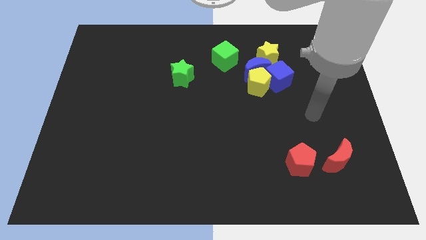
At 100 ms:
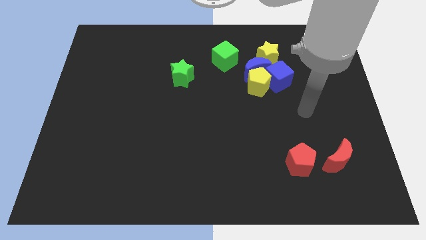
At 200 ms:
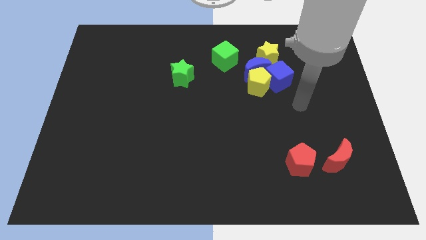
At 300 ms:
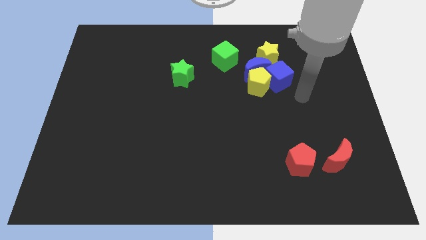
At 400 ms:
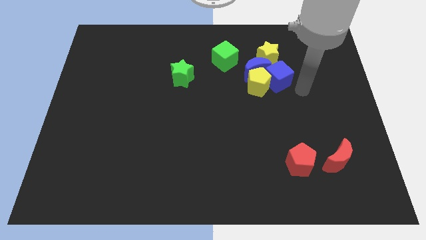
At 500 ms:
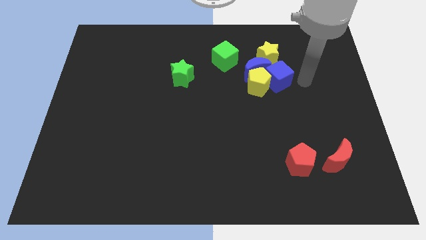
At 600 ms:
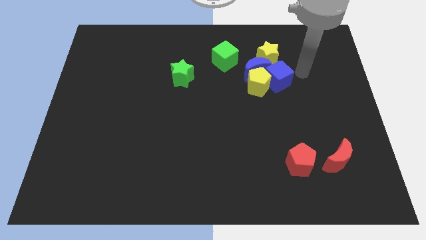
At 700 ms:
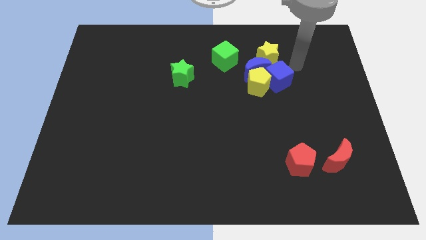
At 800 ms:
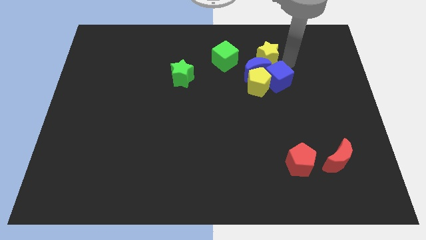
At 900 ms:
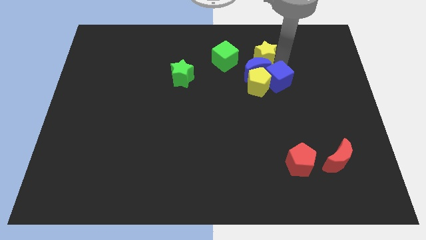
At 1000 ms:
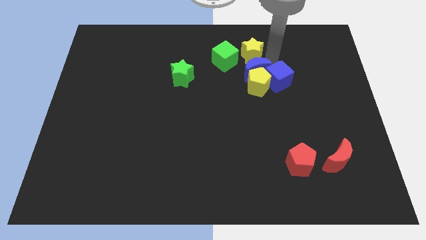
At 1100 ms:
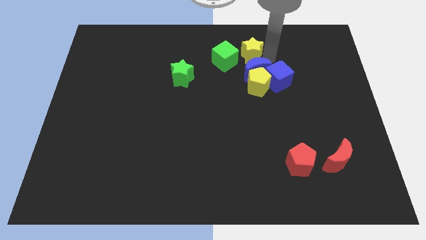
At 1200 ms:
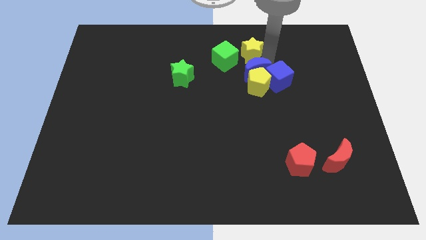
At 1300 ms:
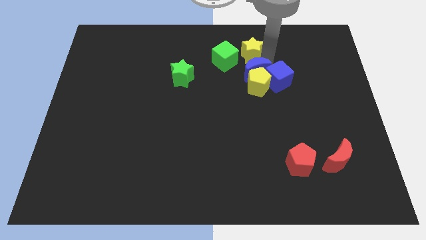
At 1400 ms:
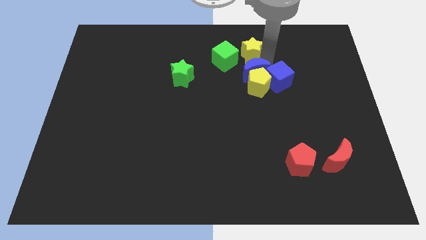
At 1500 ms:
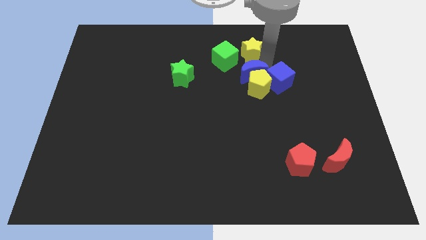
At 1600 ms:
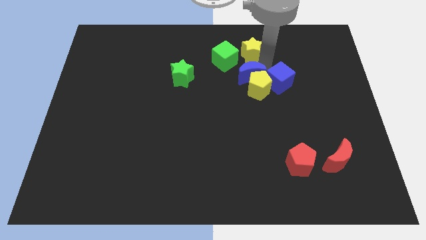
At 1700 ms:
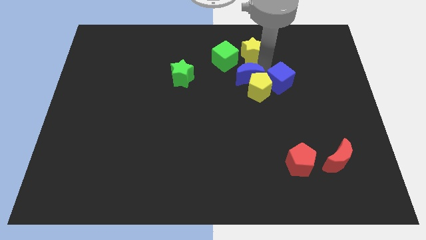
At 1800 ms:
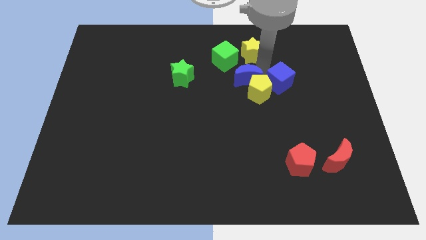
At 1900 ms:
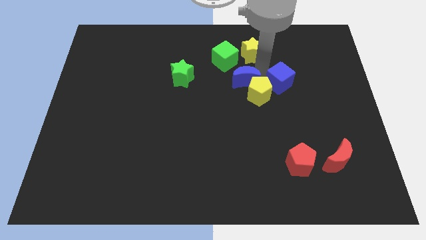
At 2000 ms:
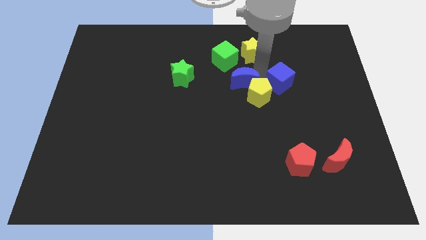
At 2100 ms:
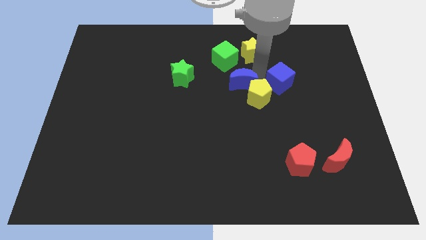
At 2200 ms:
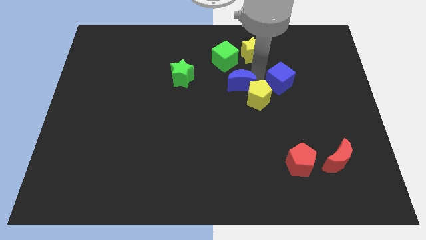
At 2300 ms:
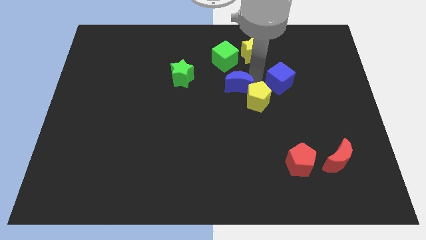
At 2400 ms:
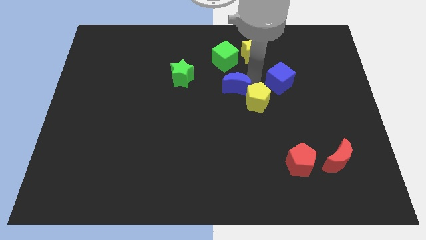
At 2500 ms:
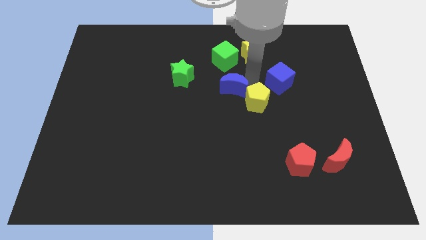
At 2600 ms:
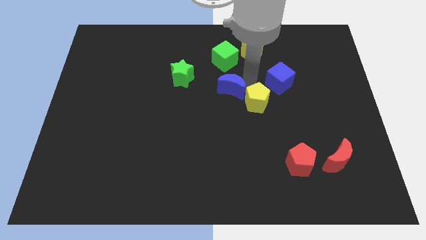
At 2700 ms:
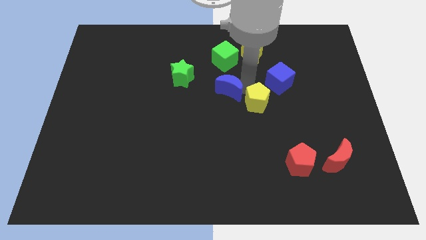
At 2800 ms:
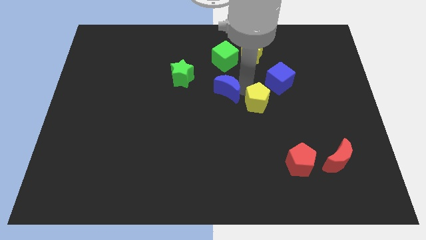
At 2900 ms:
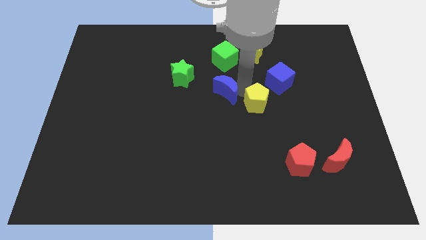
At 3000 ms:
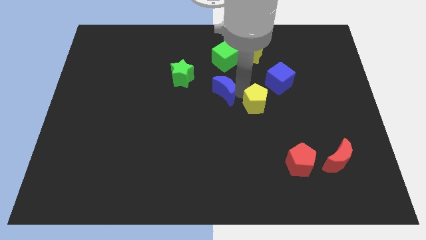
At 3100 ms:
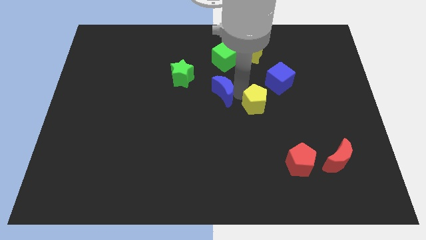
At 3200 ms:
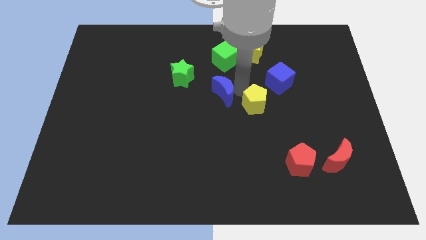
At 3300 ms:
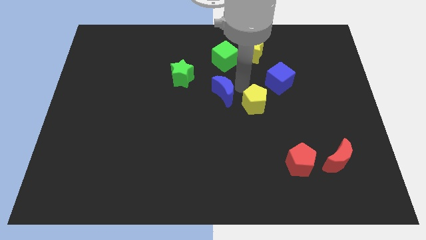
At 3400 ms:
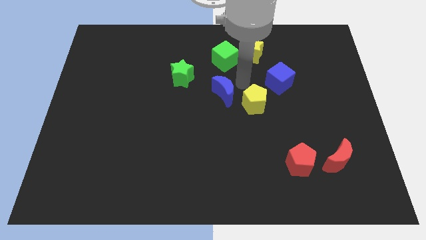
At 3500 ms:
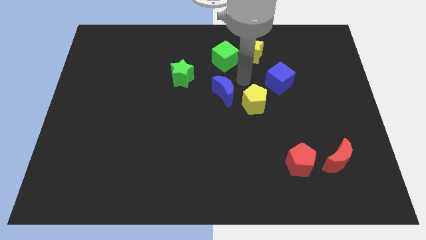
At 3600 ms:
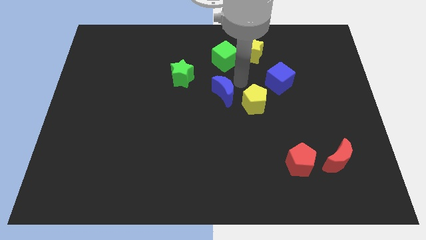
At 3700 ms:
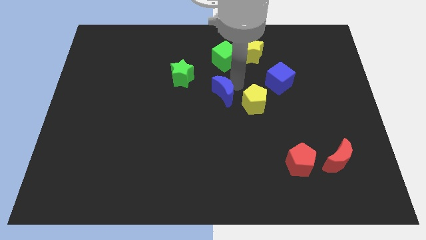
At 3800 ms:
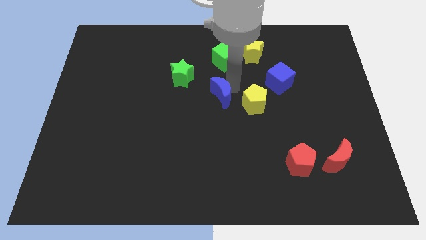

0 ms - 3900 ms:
pull the blue moon apart from the clump

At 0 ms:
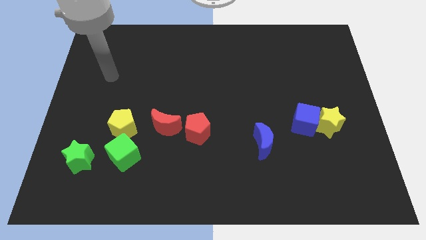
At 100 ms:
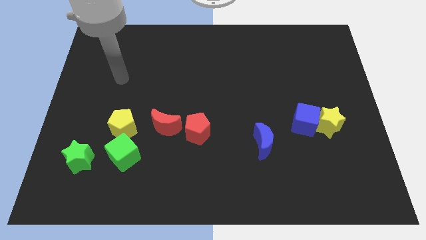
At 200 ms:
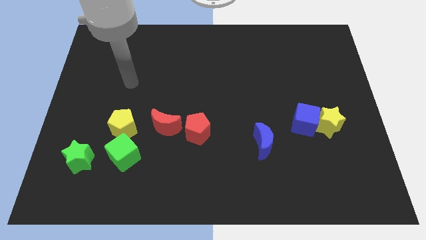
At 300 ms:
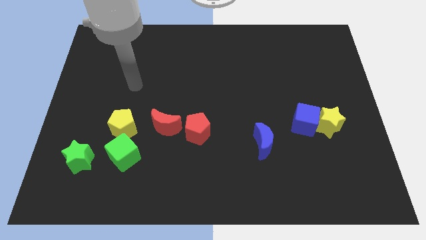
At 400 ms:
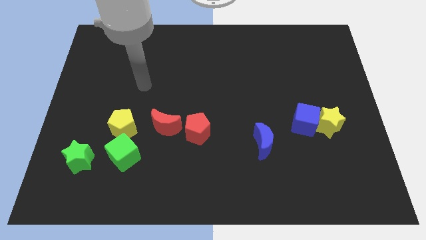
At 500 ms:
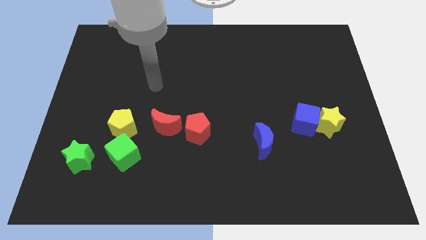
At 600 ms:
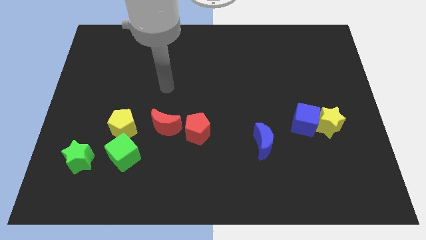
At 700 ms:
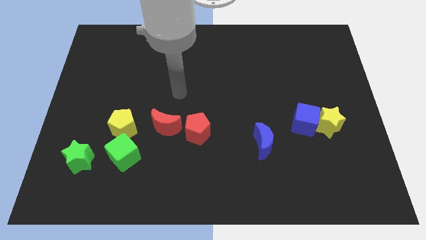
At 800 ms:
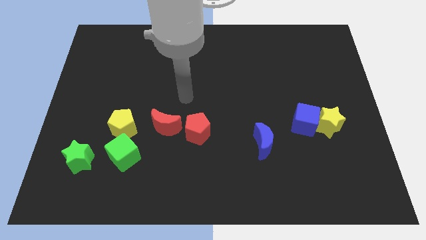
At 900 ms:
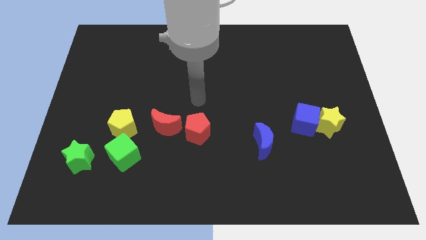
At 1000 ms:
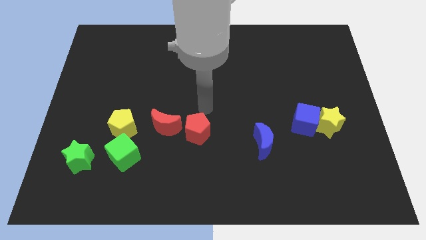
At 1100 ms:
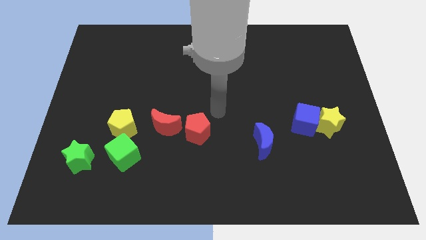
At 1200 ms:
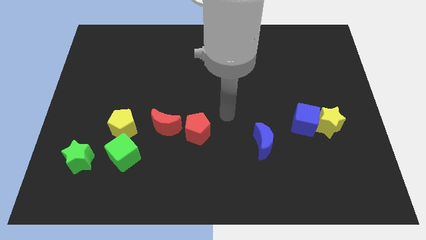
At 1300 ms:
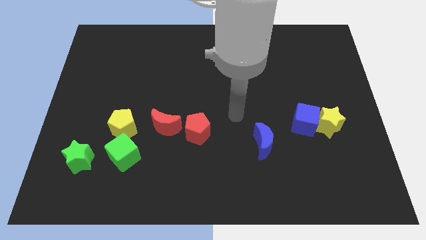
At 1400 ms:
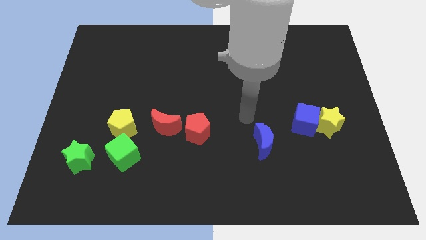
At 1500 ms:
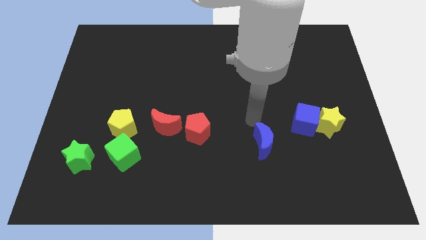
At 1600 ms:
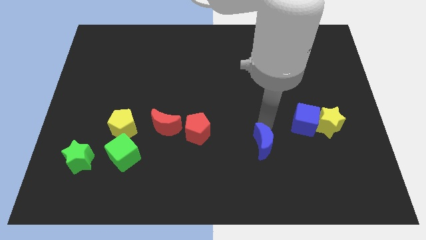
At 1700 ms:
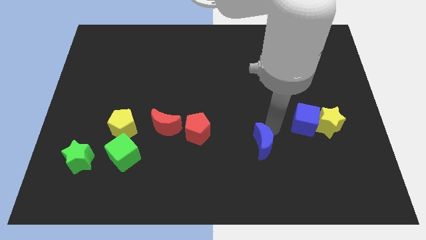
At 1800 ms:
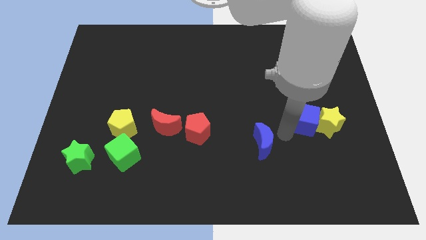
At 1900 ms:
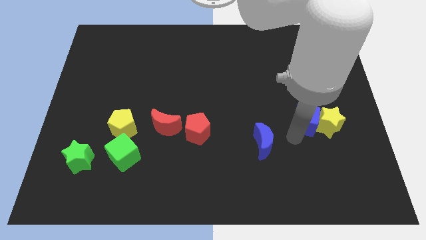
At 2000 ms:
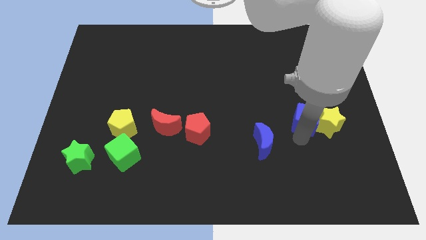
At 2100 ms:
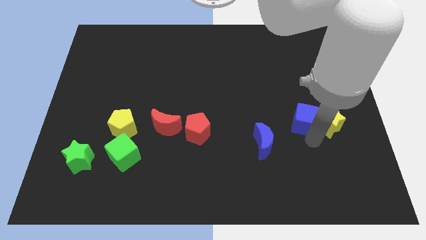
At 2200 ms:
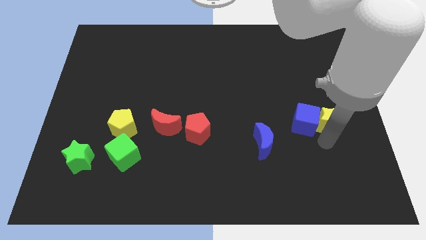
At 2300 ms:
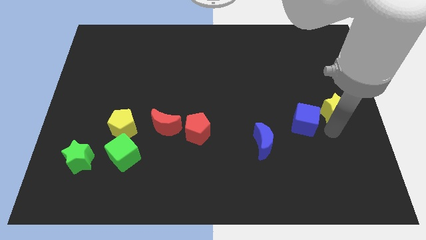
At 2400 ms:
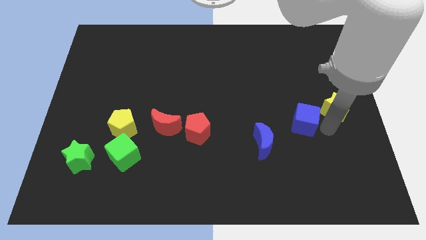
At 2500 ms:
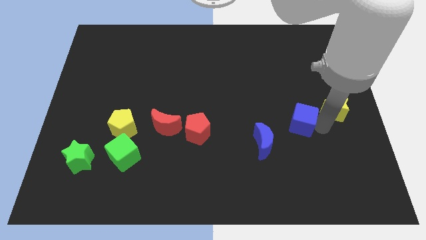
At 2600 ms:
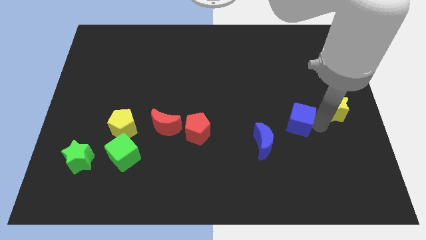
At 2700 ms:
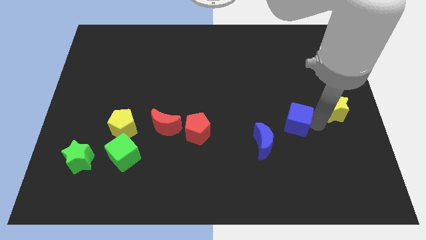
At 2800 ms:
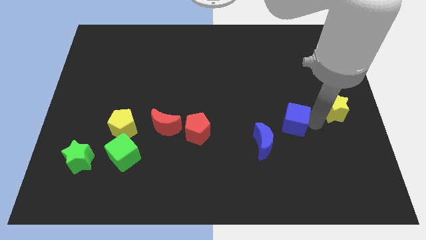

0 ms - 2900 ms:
pull the blue cube apart from the yellow star

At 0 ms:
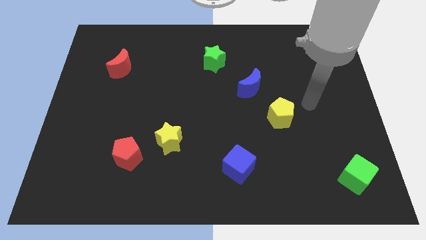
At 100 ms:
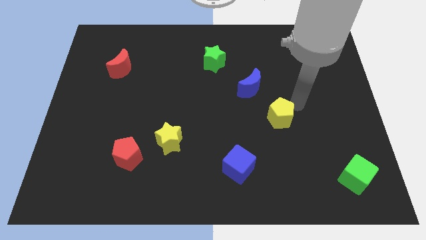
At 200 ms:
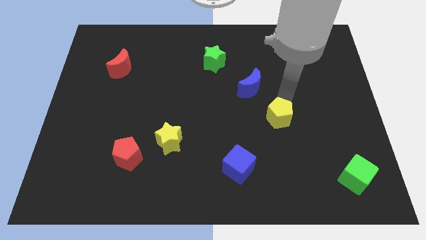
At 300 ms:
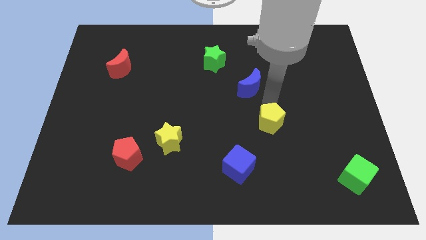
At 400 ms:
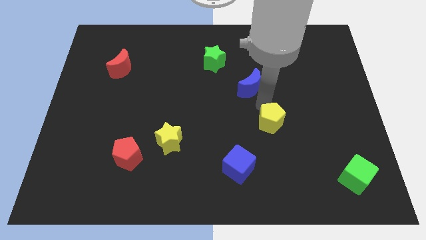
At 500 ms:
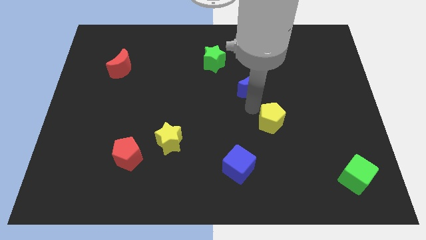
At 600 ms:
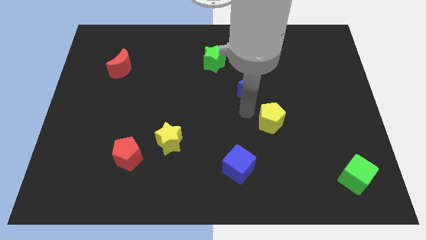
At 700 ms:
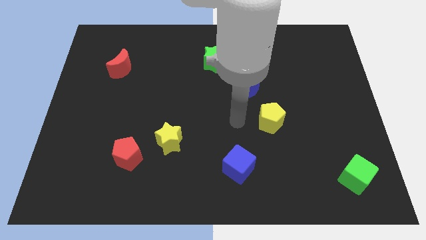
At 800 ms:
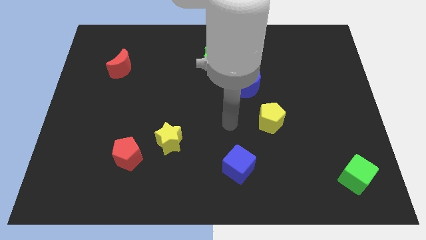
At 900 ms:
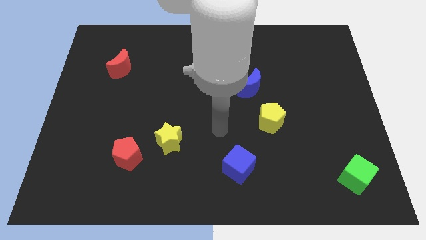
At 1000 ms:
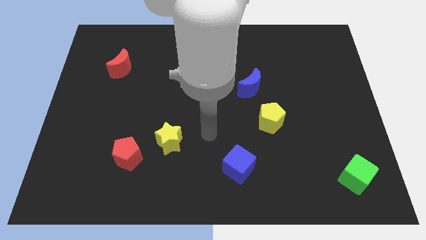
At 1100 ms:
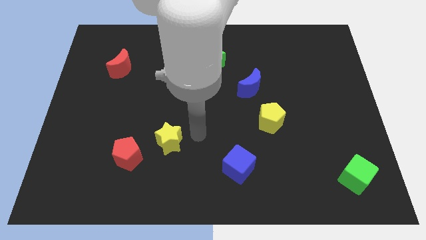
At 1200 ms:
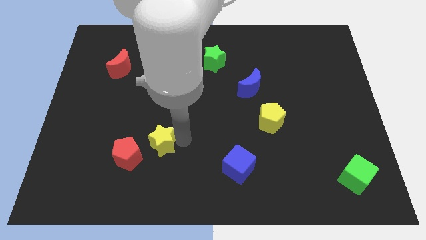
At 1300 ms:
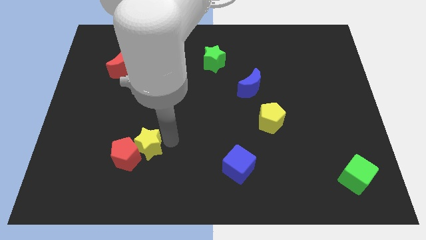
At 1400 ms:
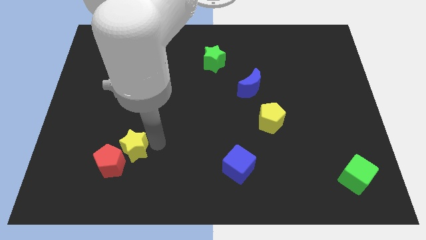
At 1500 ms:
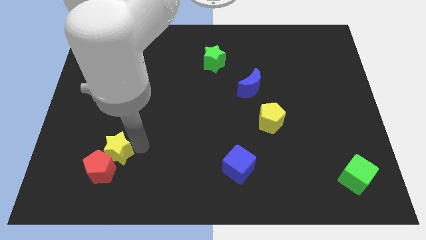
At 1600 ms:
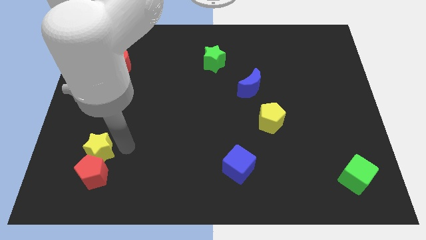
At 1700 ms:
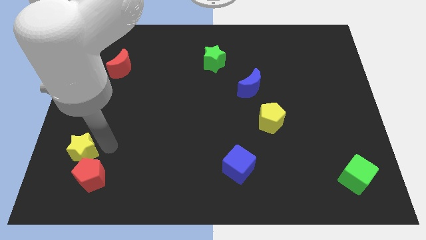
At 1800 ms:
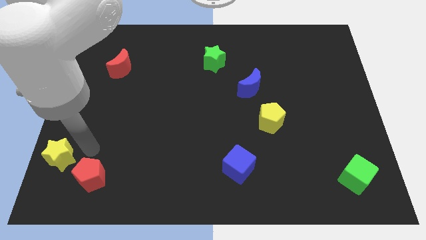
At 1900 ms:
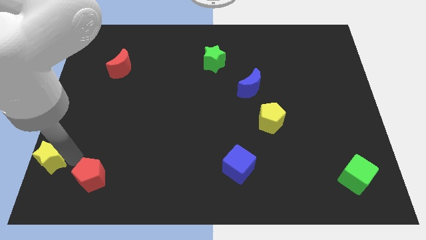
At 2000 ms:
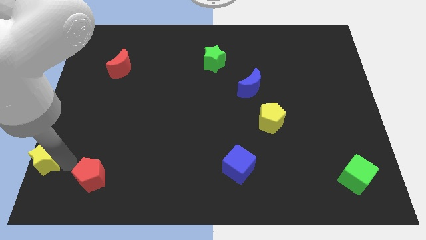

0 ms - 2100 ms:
pull the red pentagon apart from the yellow star

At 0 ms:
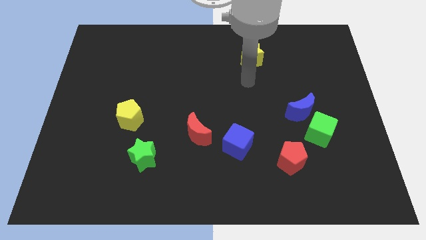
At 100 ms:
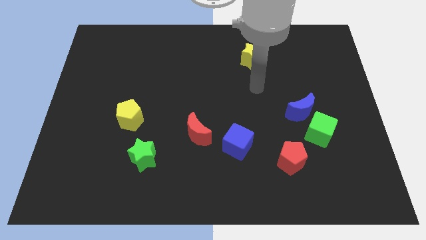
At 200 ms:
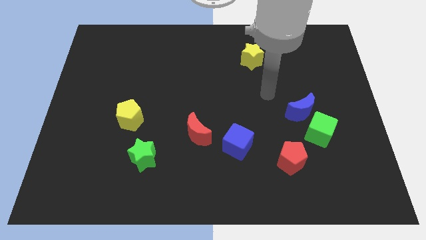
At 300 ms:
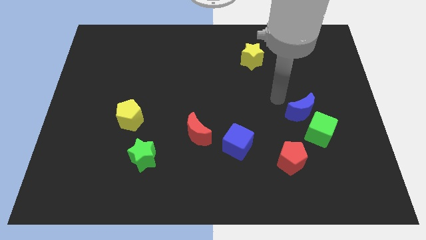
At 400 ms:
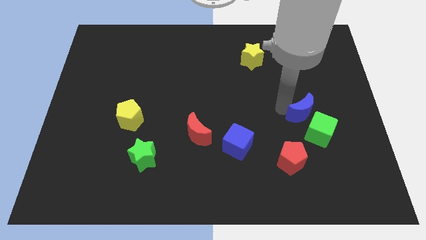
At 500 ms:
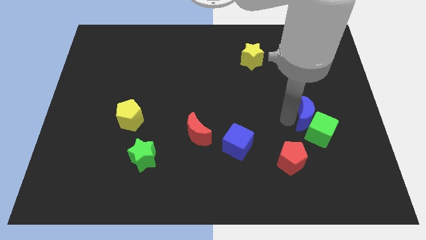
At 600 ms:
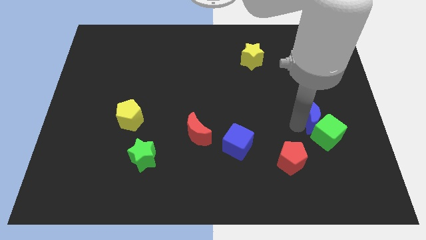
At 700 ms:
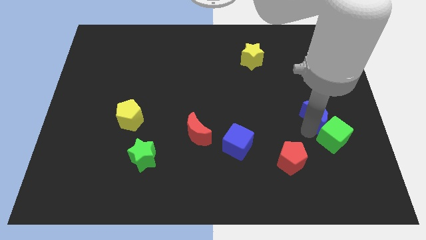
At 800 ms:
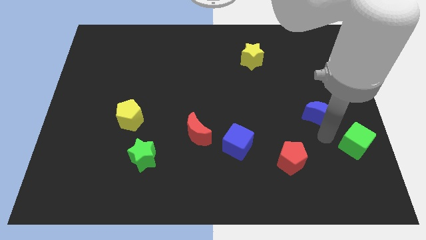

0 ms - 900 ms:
separate the blue moon from the green cube
